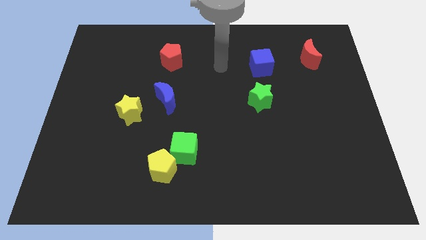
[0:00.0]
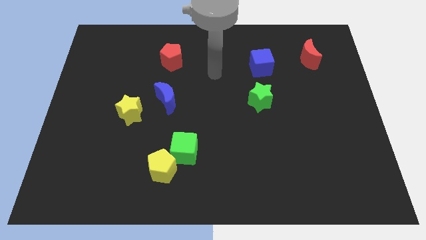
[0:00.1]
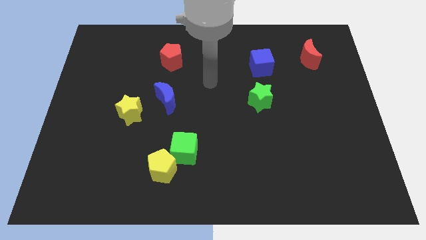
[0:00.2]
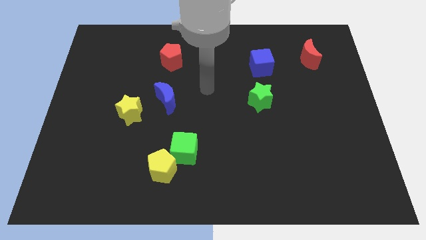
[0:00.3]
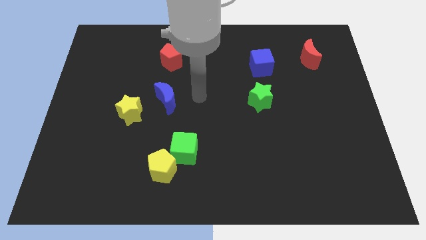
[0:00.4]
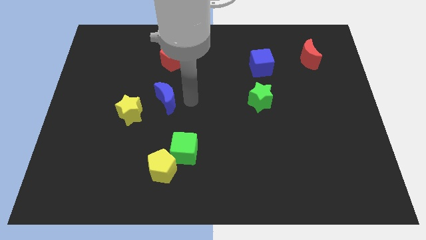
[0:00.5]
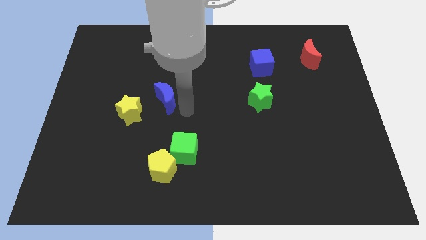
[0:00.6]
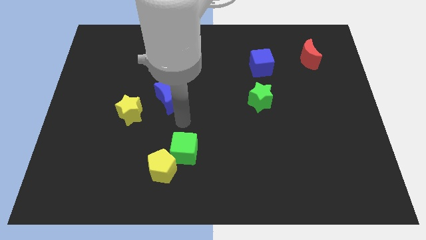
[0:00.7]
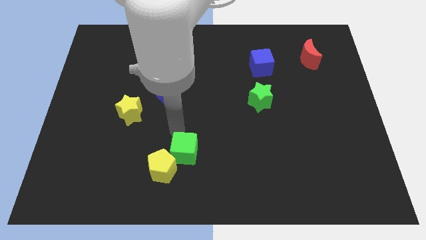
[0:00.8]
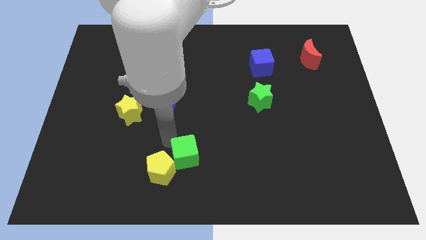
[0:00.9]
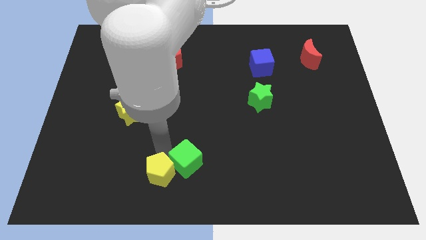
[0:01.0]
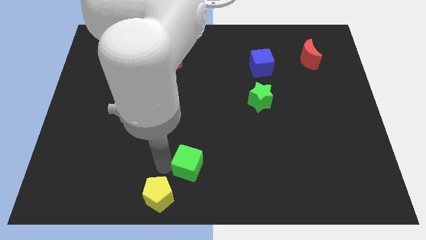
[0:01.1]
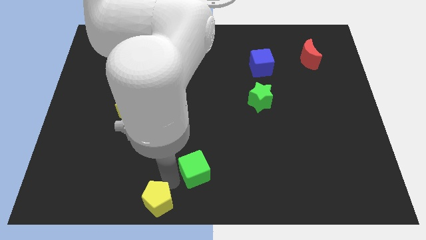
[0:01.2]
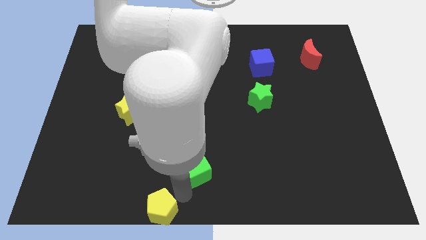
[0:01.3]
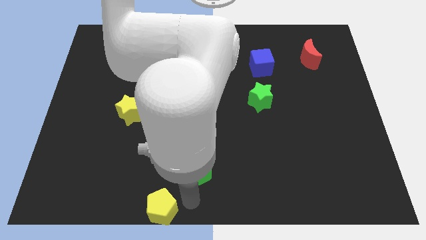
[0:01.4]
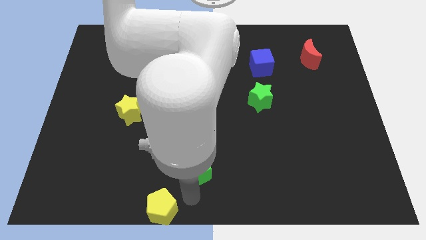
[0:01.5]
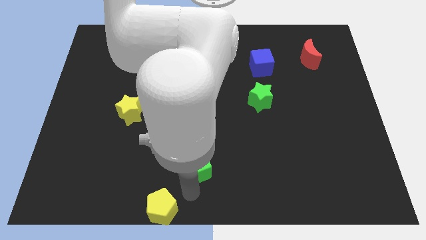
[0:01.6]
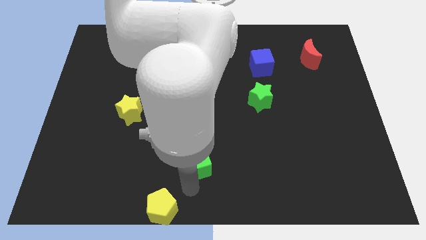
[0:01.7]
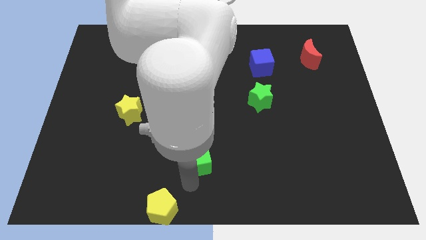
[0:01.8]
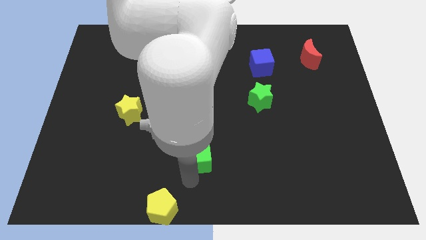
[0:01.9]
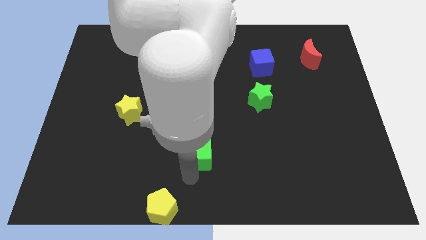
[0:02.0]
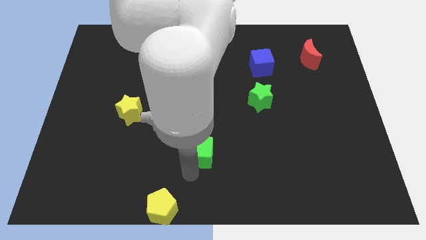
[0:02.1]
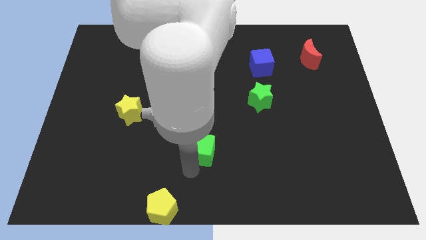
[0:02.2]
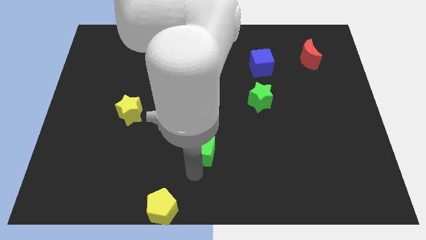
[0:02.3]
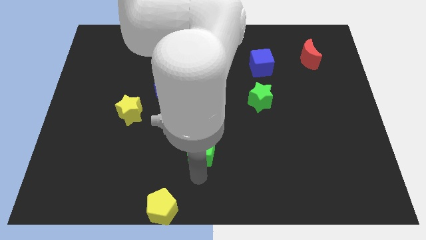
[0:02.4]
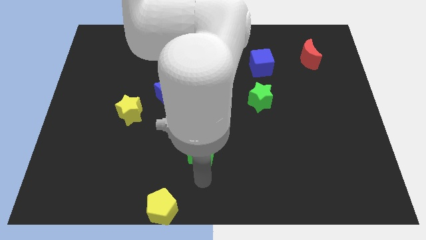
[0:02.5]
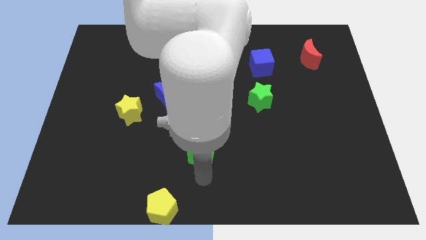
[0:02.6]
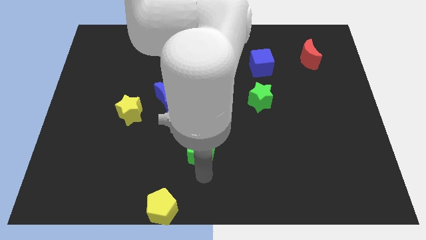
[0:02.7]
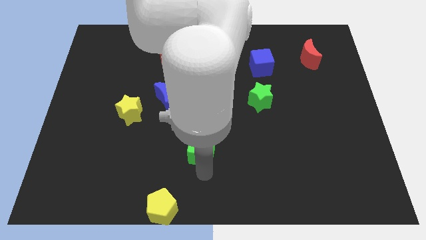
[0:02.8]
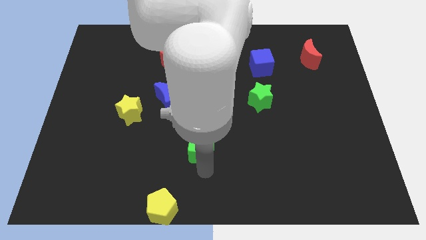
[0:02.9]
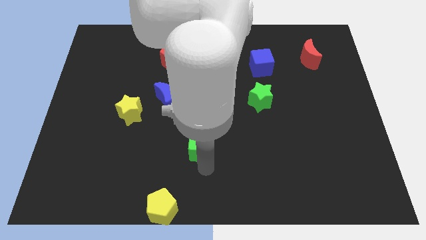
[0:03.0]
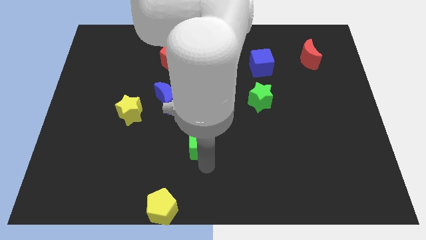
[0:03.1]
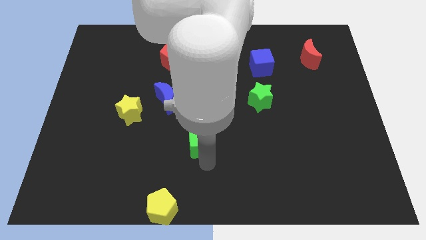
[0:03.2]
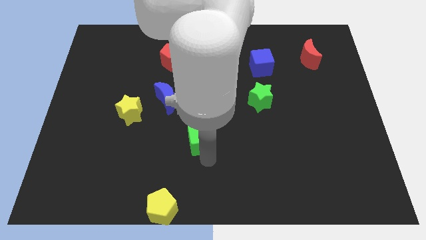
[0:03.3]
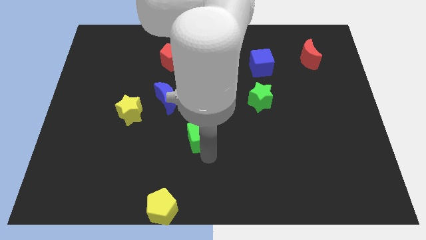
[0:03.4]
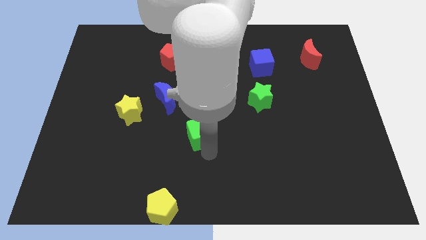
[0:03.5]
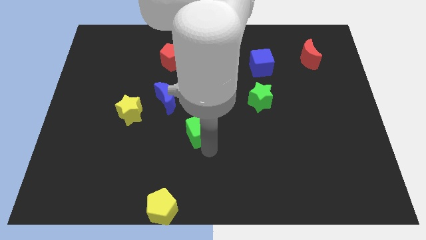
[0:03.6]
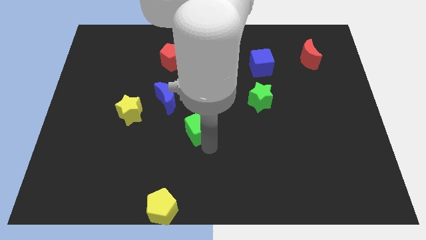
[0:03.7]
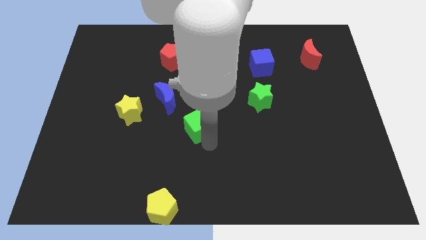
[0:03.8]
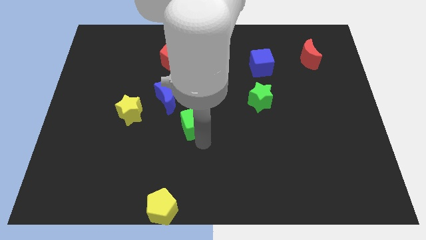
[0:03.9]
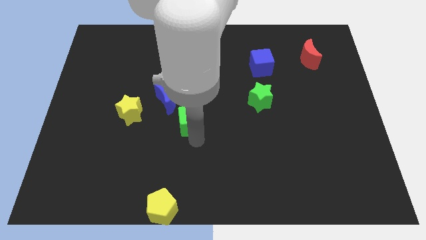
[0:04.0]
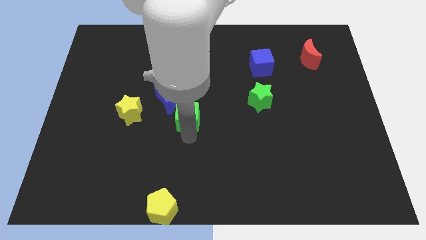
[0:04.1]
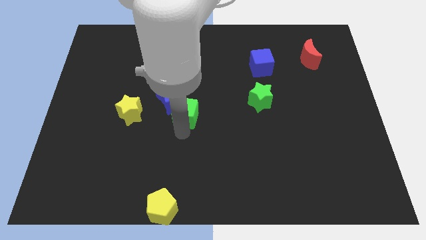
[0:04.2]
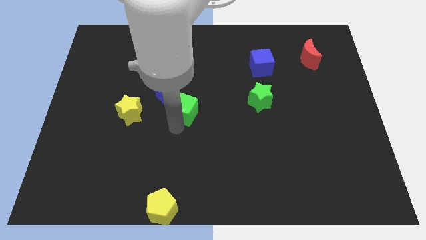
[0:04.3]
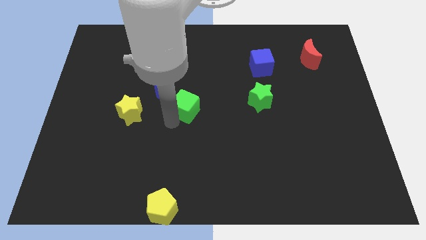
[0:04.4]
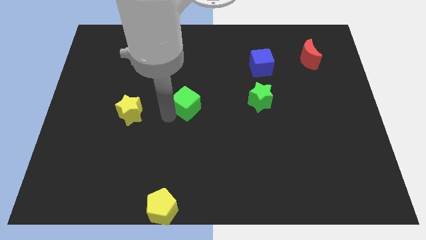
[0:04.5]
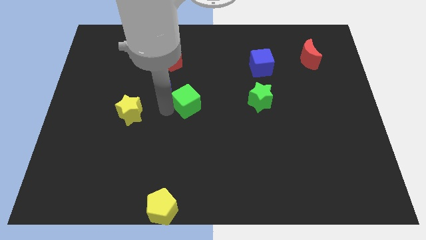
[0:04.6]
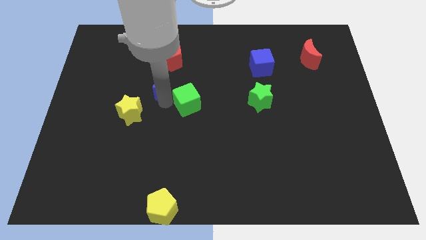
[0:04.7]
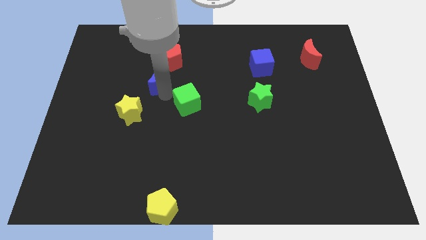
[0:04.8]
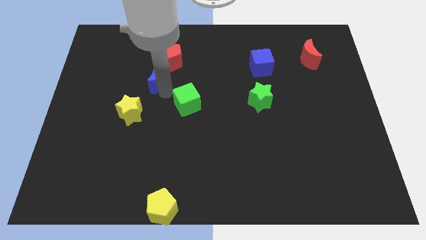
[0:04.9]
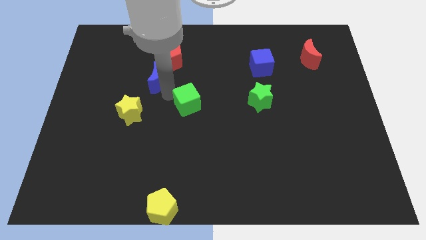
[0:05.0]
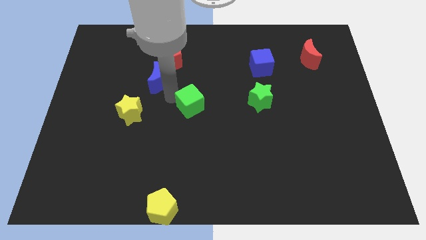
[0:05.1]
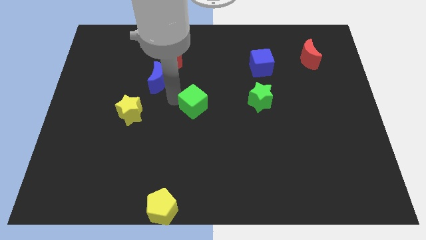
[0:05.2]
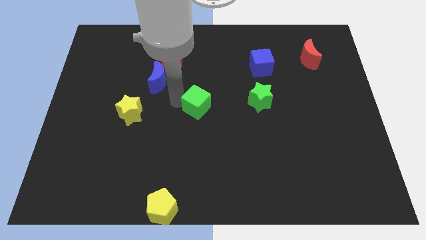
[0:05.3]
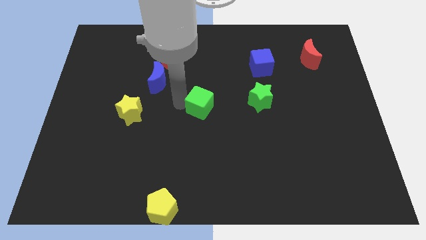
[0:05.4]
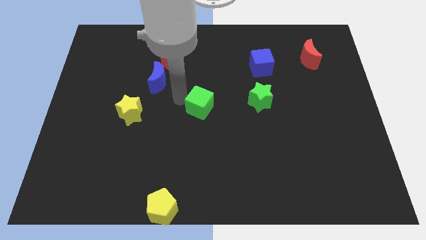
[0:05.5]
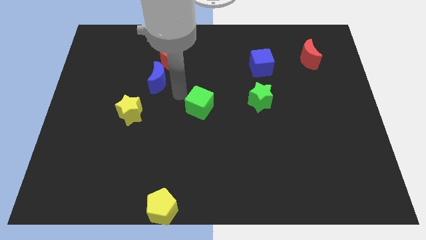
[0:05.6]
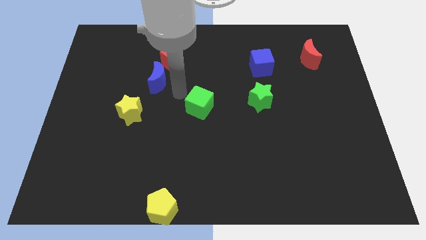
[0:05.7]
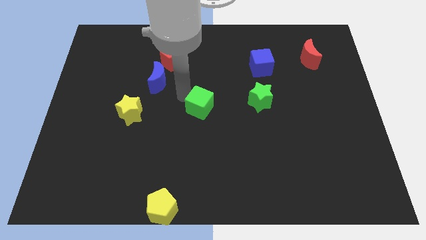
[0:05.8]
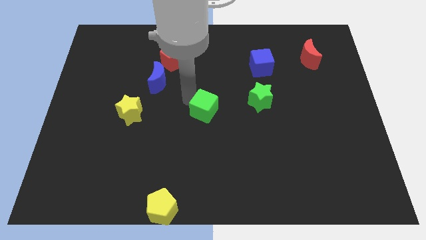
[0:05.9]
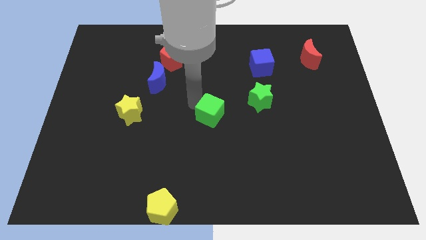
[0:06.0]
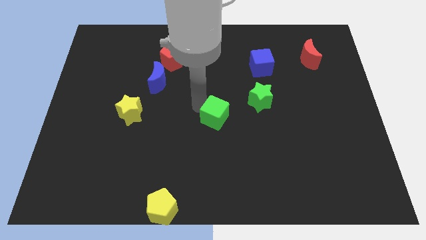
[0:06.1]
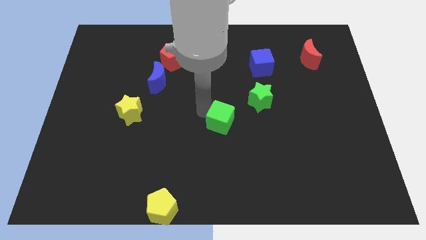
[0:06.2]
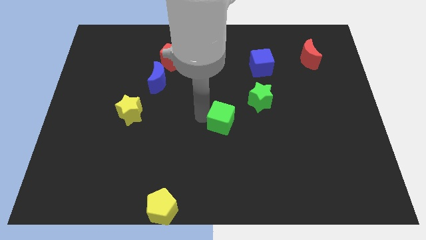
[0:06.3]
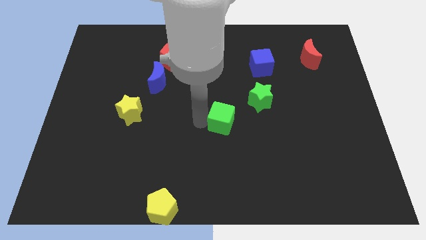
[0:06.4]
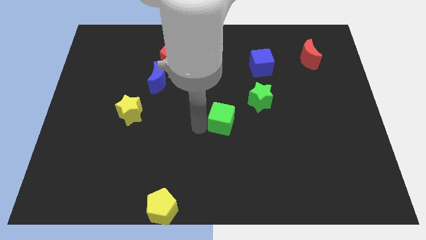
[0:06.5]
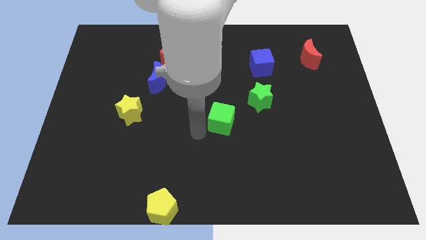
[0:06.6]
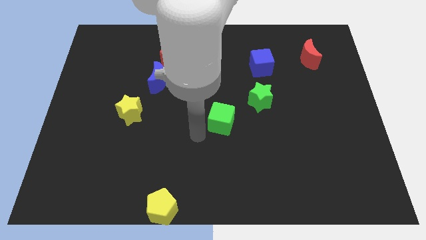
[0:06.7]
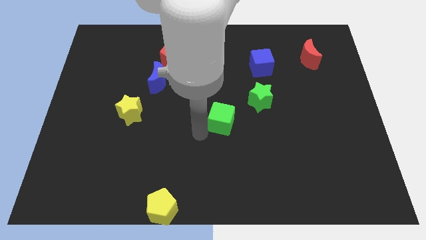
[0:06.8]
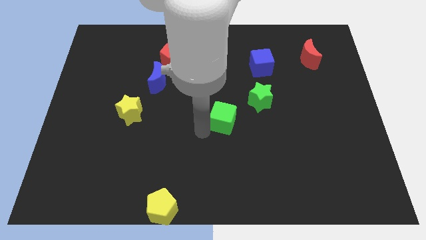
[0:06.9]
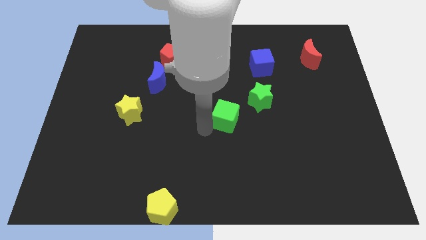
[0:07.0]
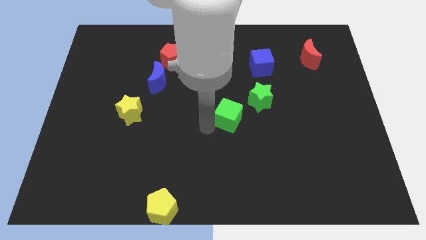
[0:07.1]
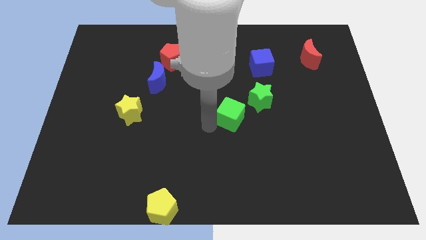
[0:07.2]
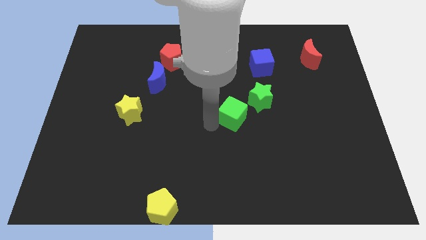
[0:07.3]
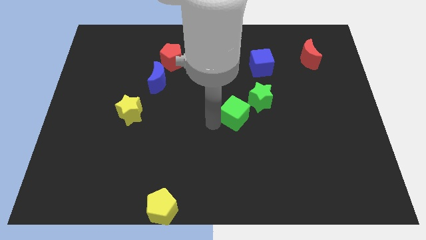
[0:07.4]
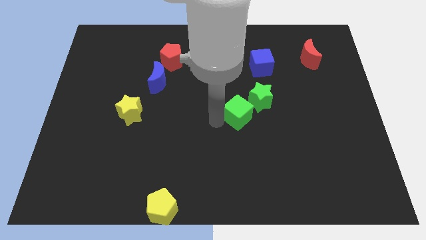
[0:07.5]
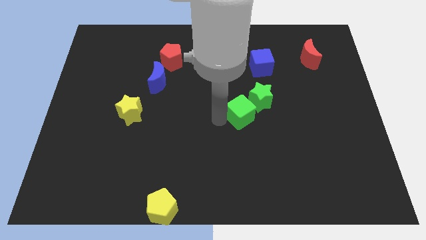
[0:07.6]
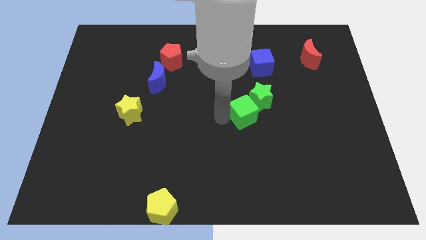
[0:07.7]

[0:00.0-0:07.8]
push the green cube close to the green star
